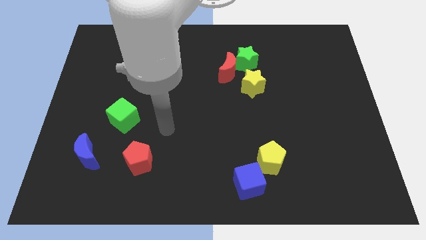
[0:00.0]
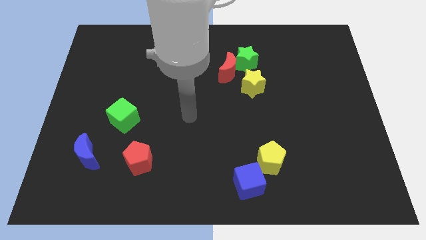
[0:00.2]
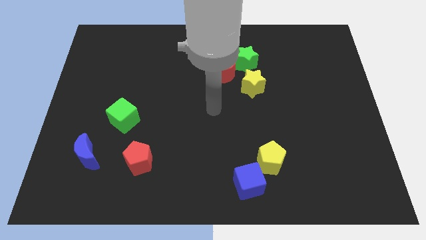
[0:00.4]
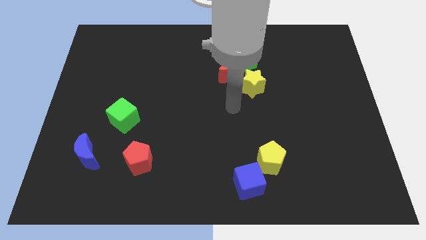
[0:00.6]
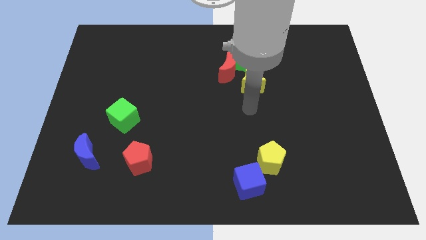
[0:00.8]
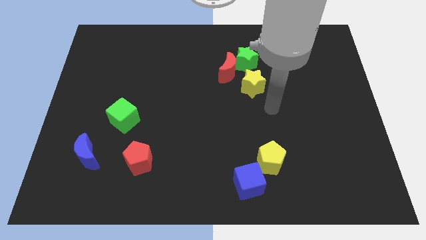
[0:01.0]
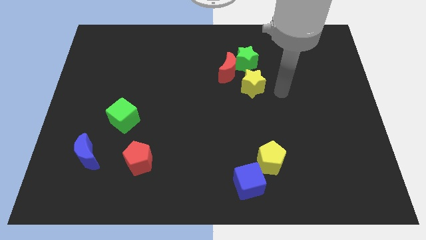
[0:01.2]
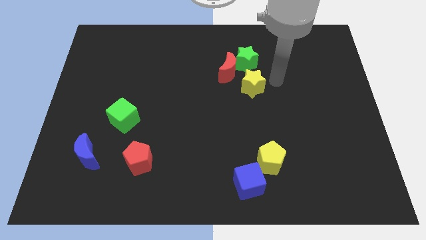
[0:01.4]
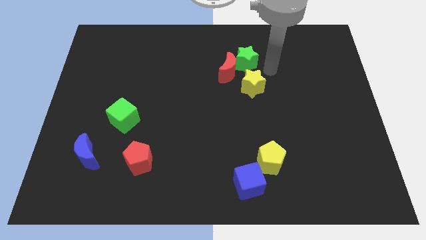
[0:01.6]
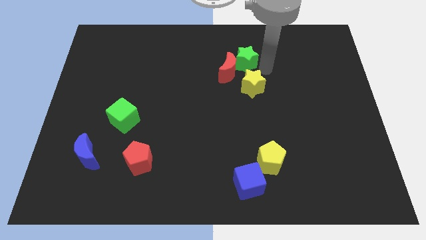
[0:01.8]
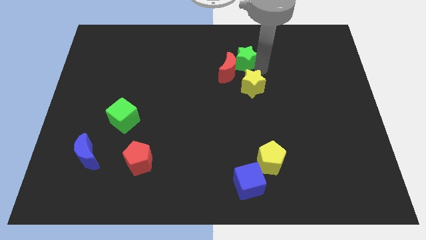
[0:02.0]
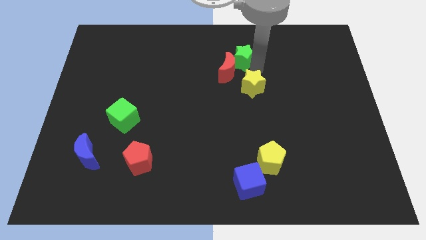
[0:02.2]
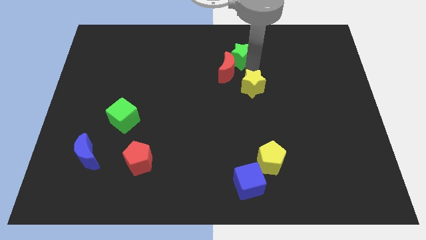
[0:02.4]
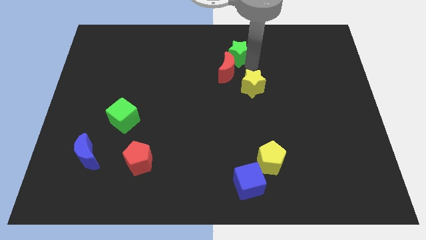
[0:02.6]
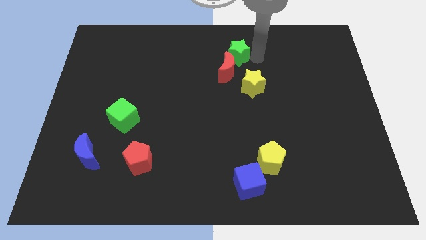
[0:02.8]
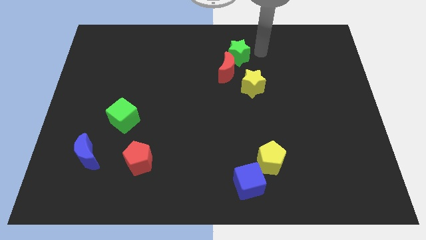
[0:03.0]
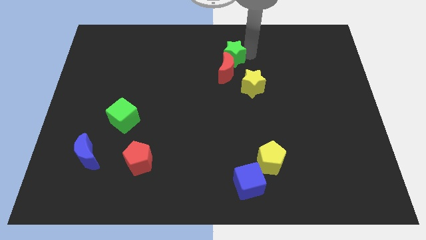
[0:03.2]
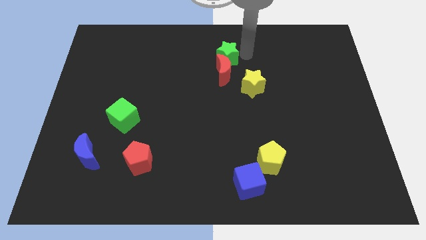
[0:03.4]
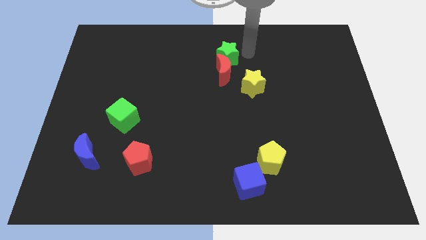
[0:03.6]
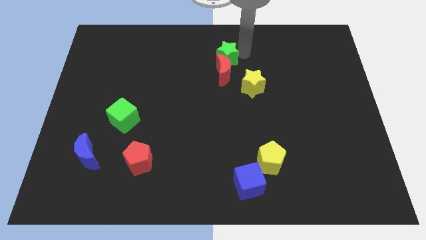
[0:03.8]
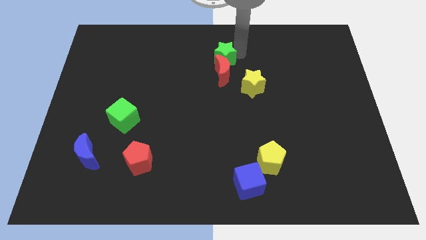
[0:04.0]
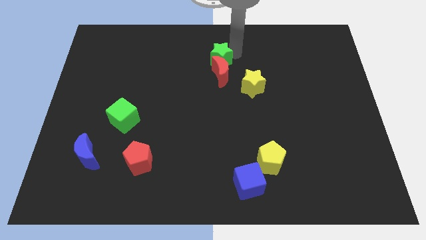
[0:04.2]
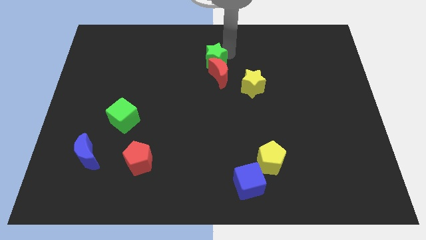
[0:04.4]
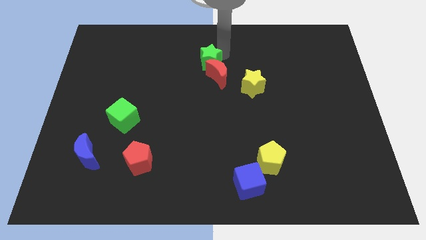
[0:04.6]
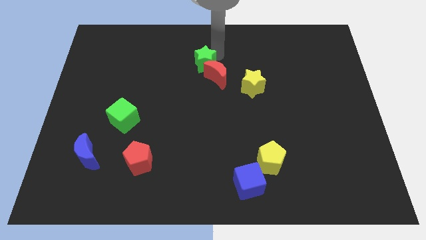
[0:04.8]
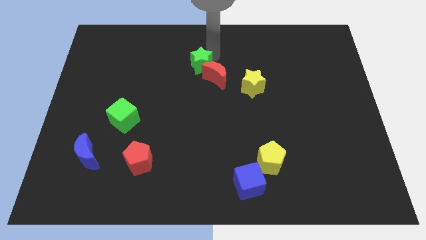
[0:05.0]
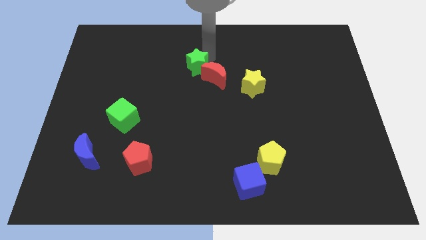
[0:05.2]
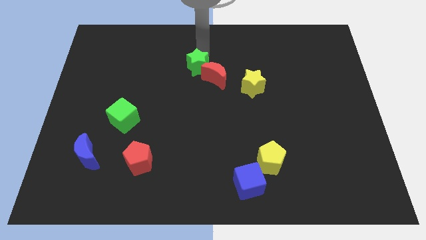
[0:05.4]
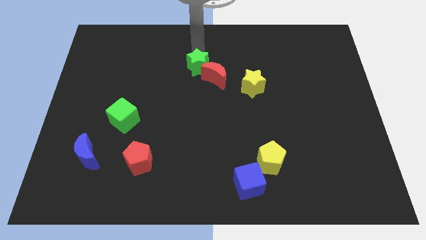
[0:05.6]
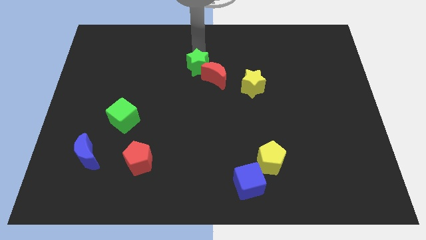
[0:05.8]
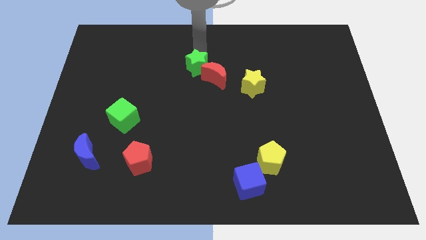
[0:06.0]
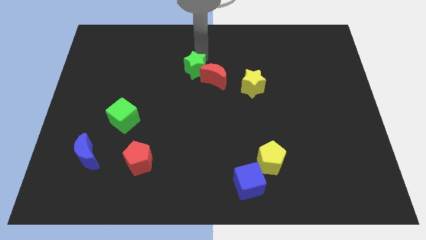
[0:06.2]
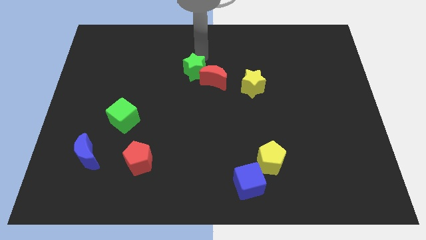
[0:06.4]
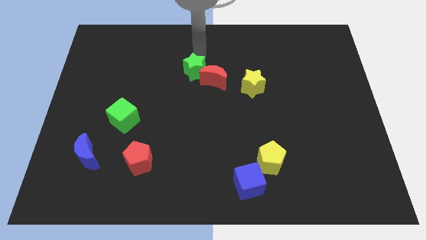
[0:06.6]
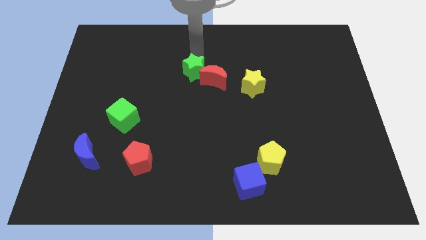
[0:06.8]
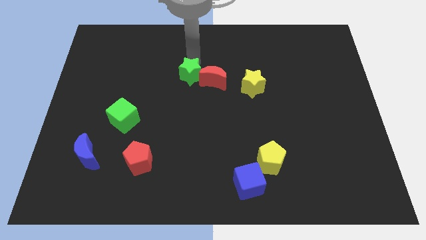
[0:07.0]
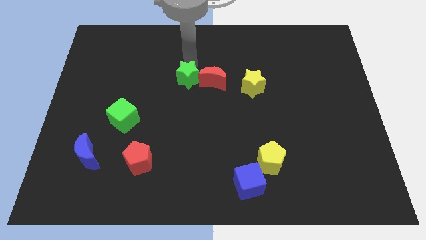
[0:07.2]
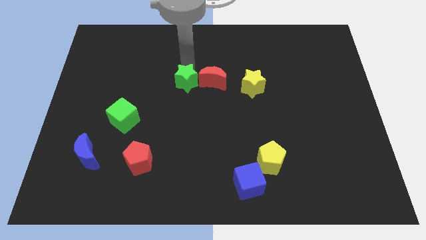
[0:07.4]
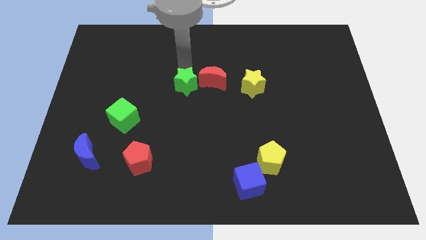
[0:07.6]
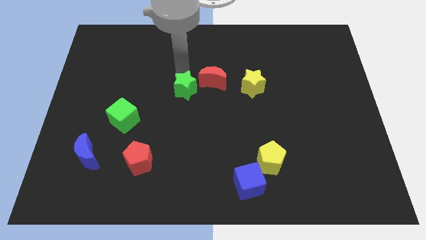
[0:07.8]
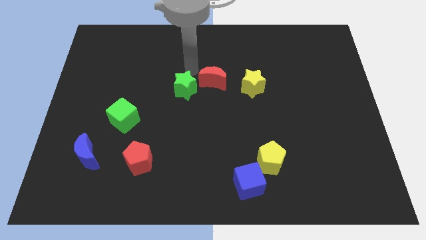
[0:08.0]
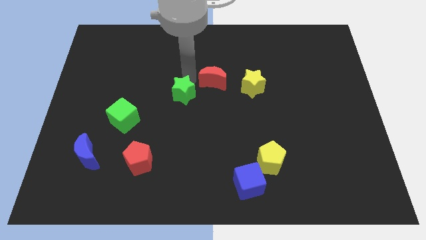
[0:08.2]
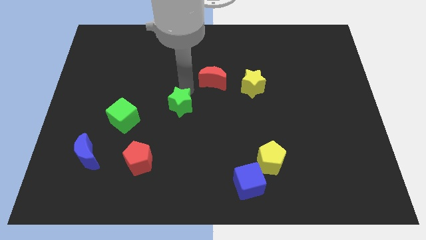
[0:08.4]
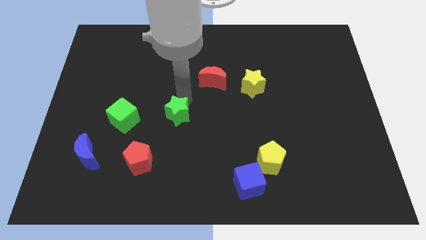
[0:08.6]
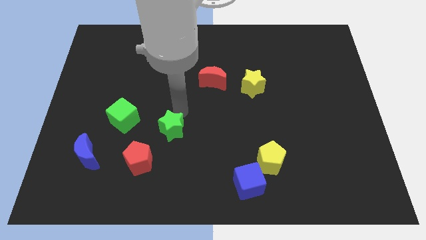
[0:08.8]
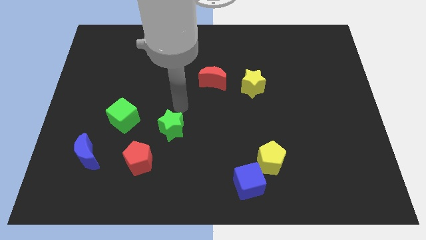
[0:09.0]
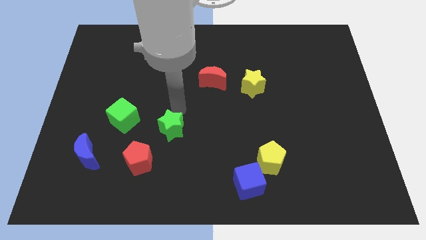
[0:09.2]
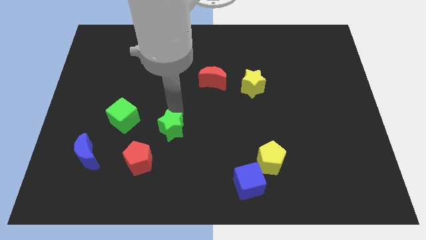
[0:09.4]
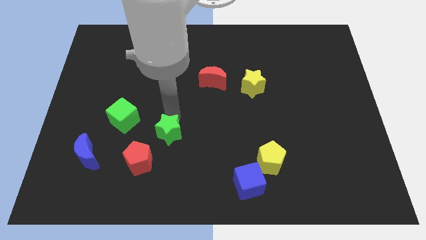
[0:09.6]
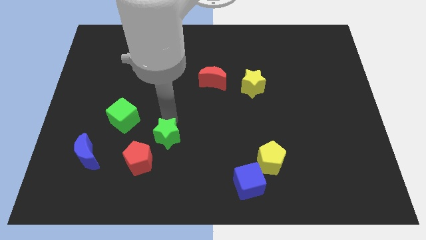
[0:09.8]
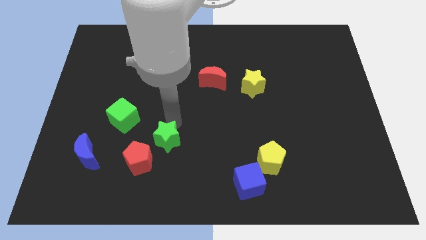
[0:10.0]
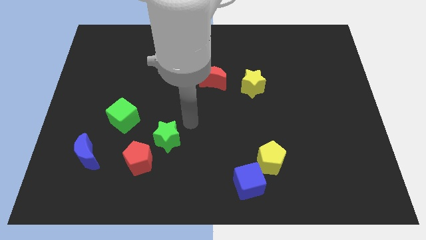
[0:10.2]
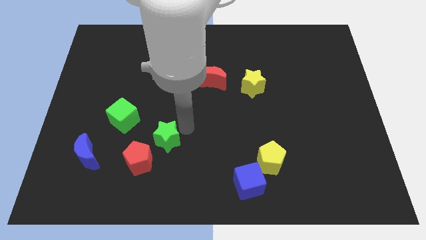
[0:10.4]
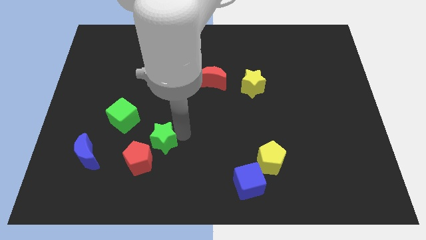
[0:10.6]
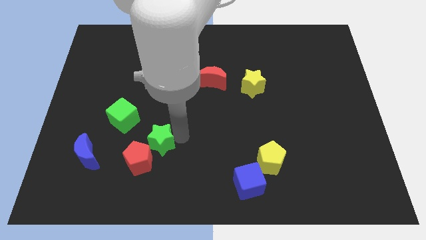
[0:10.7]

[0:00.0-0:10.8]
put the green star next to the red pentagon

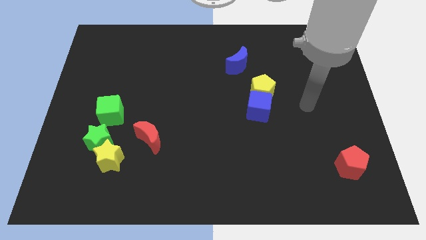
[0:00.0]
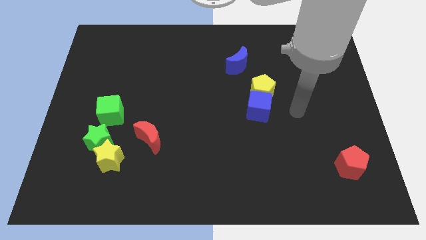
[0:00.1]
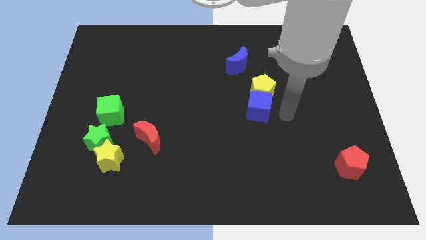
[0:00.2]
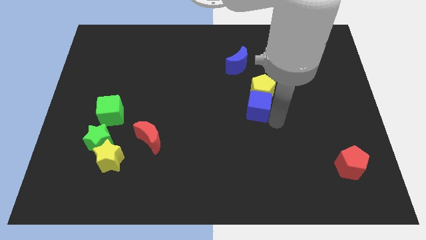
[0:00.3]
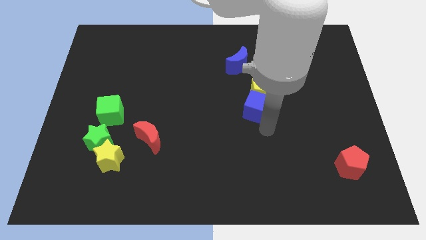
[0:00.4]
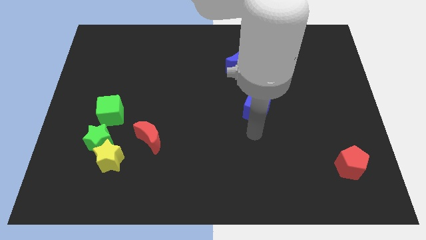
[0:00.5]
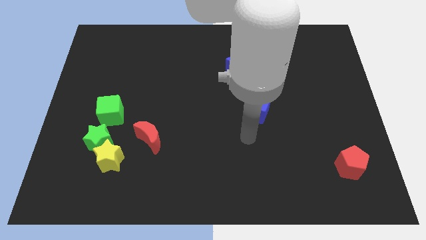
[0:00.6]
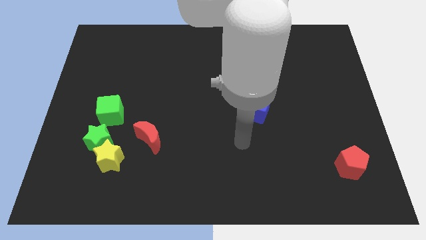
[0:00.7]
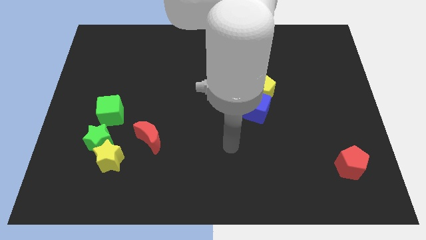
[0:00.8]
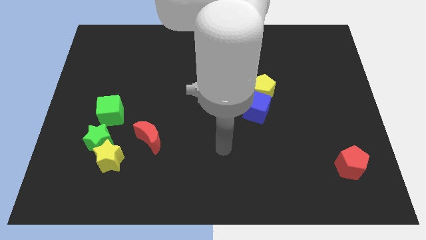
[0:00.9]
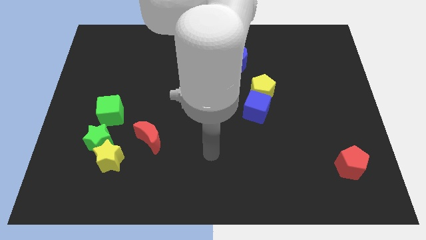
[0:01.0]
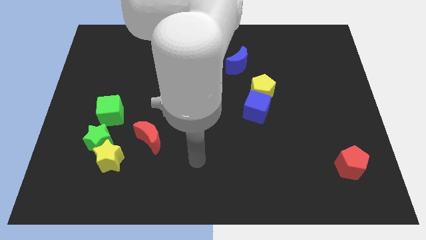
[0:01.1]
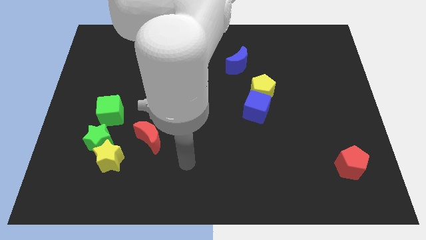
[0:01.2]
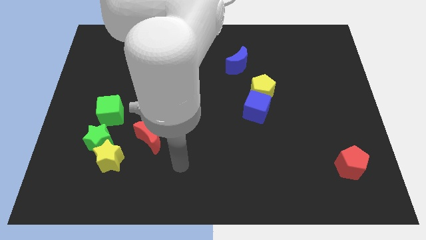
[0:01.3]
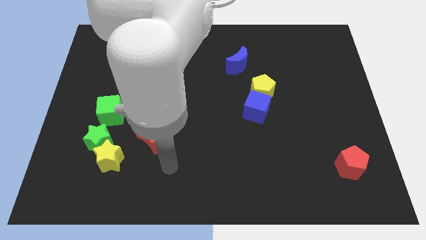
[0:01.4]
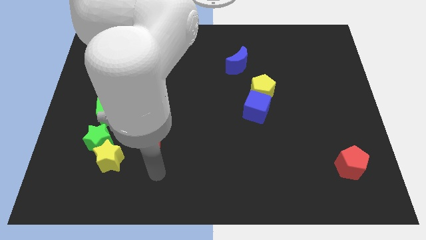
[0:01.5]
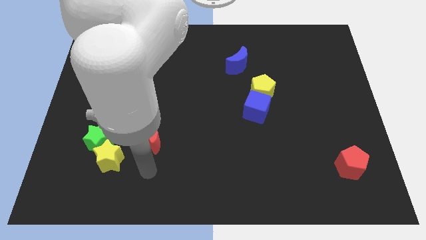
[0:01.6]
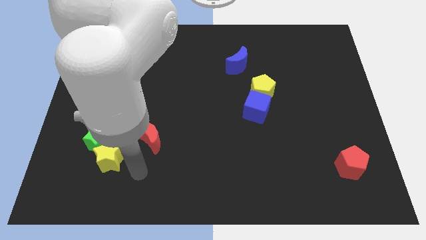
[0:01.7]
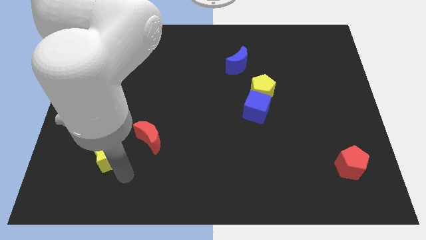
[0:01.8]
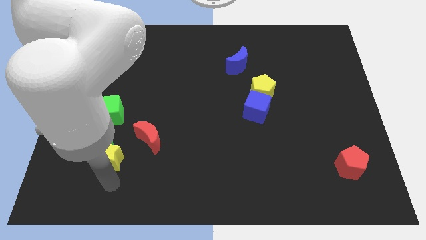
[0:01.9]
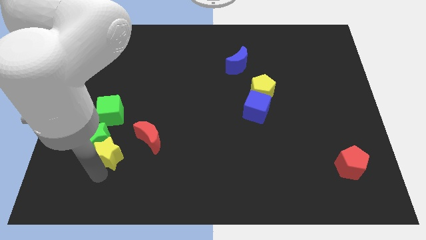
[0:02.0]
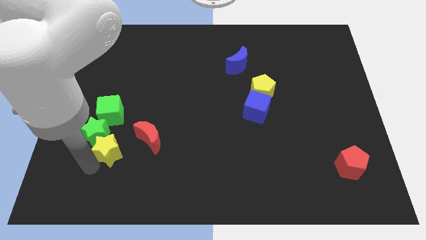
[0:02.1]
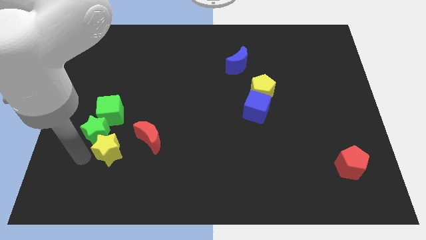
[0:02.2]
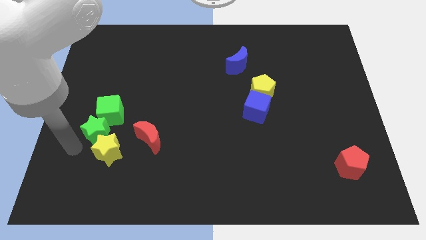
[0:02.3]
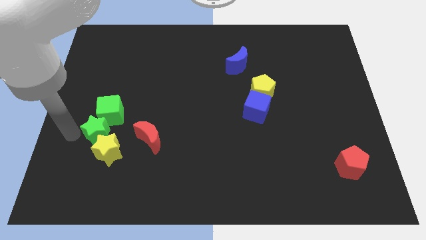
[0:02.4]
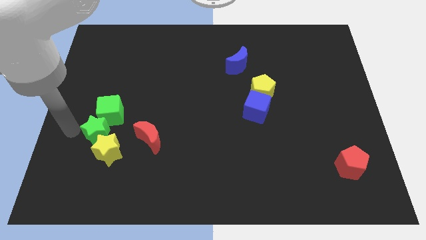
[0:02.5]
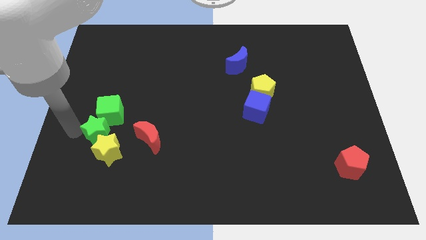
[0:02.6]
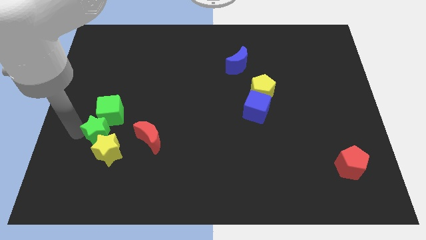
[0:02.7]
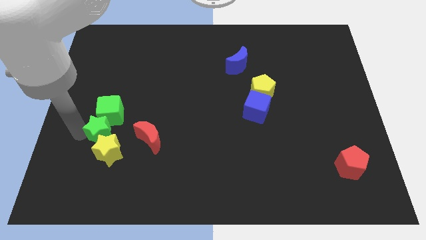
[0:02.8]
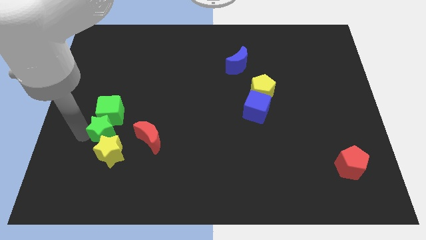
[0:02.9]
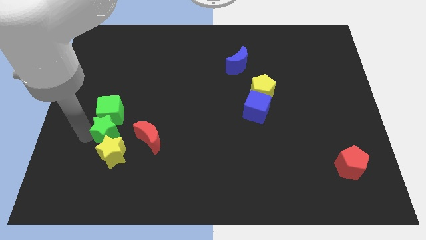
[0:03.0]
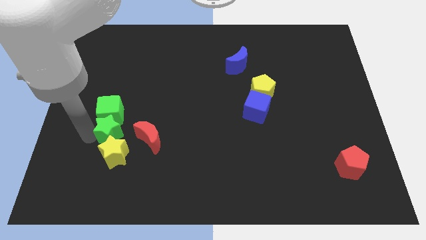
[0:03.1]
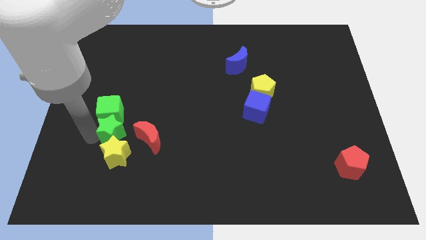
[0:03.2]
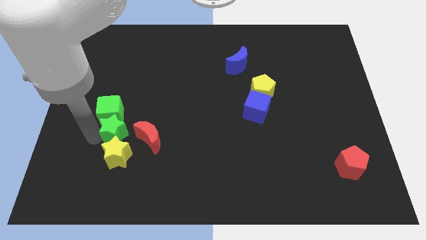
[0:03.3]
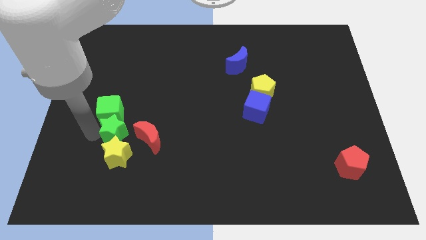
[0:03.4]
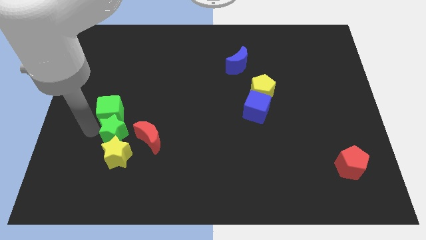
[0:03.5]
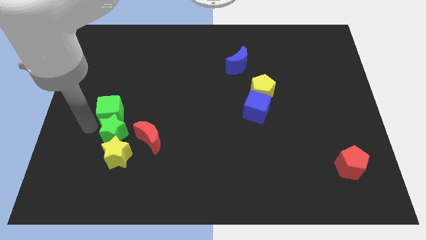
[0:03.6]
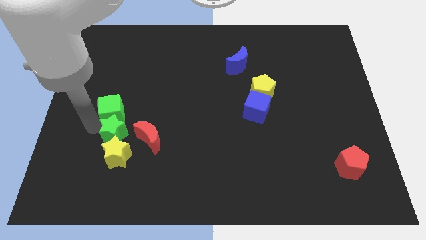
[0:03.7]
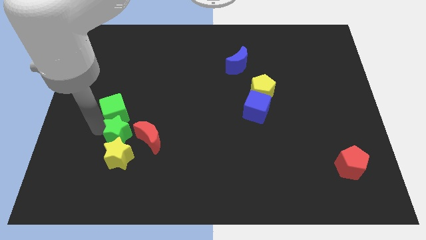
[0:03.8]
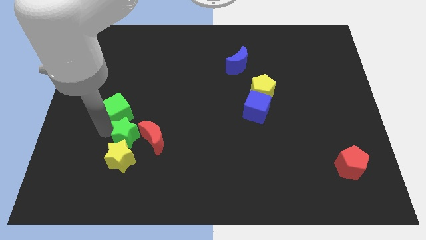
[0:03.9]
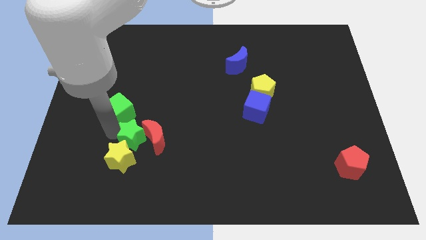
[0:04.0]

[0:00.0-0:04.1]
move the green star next to the red moon
